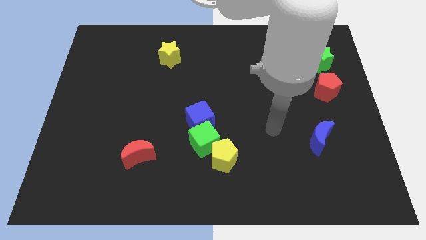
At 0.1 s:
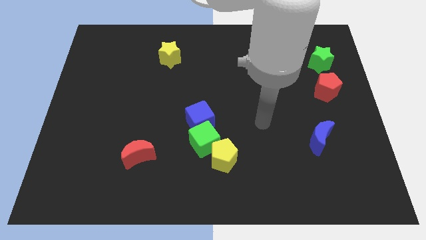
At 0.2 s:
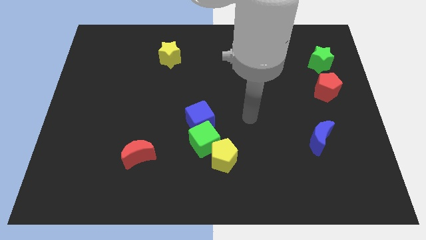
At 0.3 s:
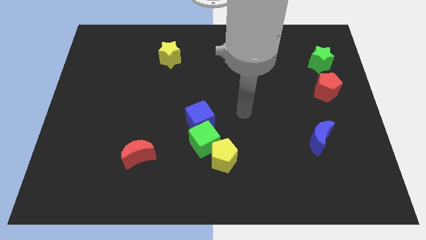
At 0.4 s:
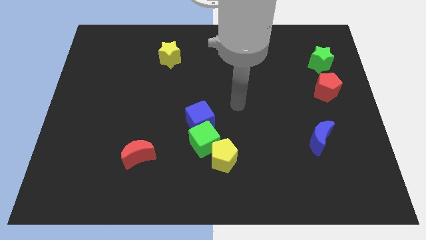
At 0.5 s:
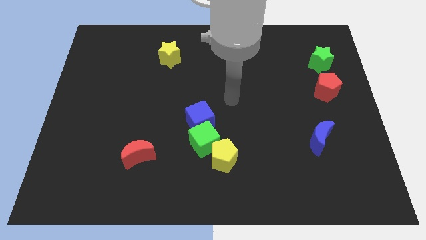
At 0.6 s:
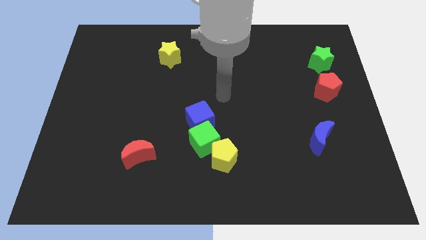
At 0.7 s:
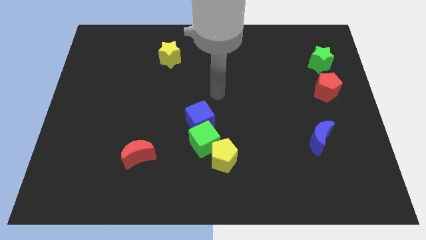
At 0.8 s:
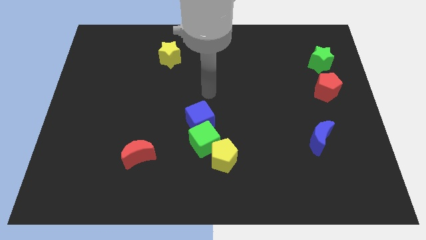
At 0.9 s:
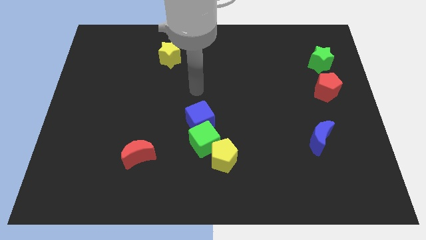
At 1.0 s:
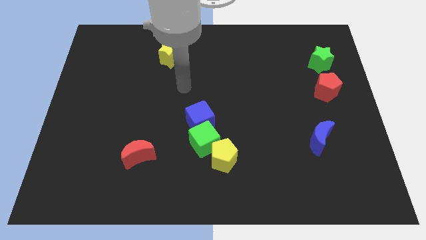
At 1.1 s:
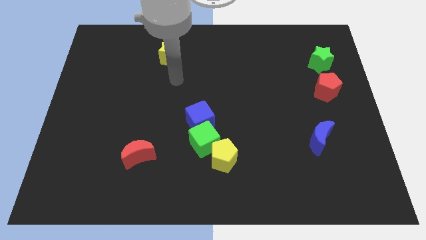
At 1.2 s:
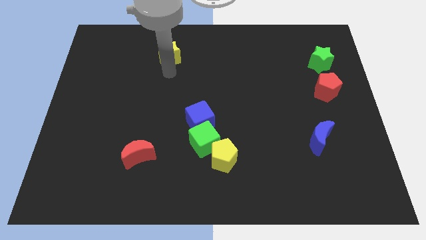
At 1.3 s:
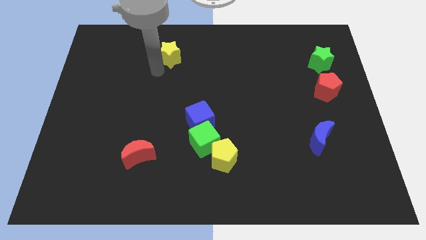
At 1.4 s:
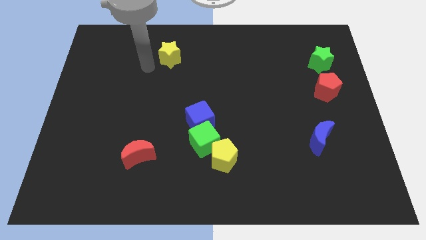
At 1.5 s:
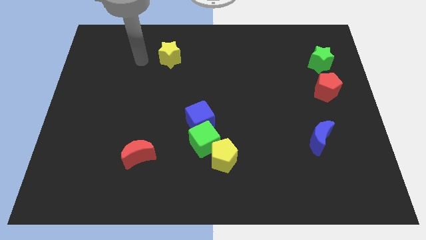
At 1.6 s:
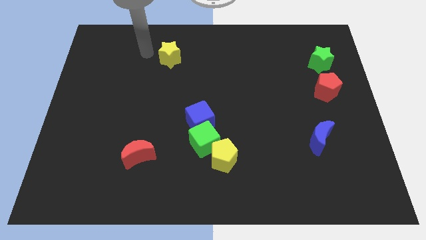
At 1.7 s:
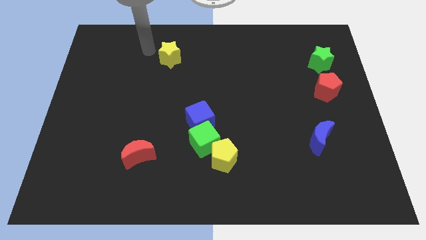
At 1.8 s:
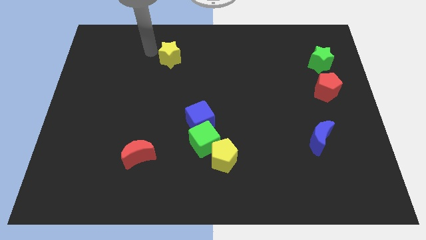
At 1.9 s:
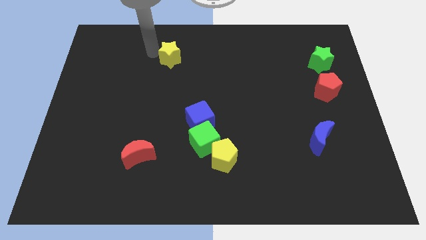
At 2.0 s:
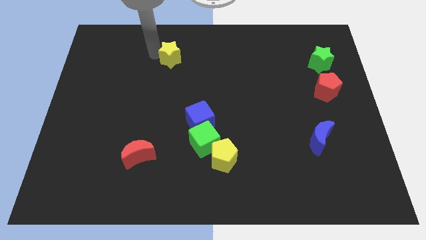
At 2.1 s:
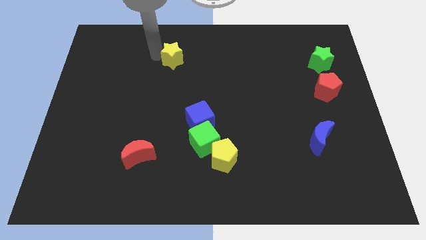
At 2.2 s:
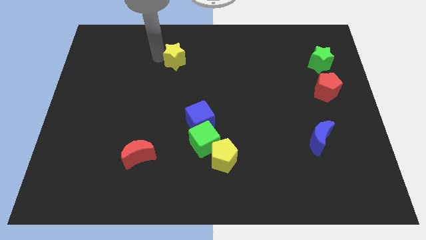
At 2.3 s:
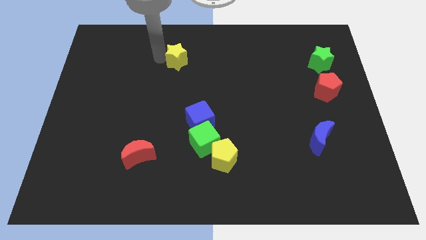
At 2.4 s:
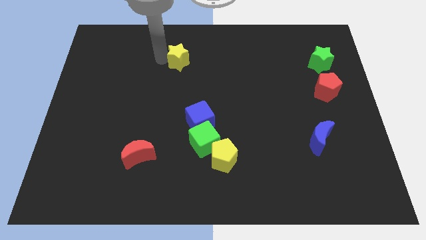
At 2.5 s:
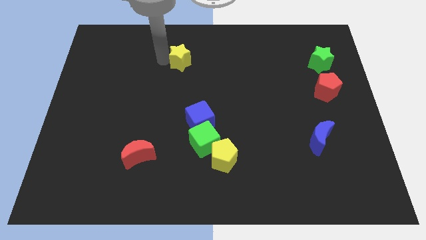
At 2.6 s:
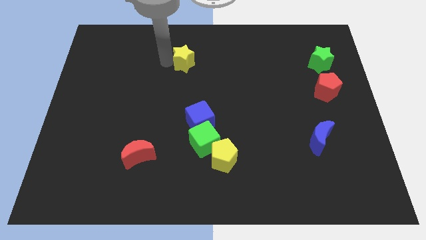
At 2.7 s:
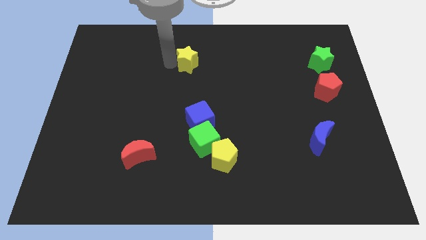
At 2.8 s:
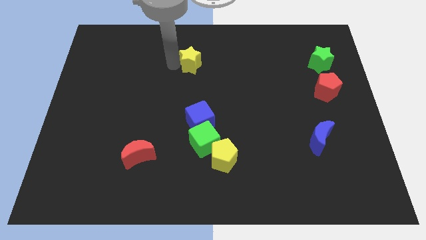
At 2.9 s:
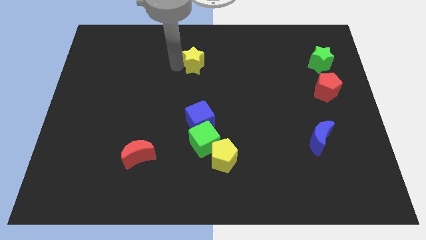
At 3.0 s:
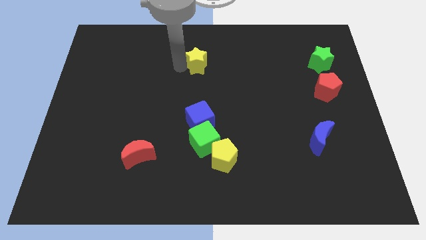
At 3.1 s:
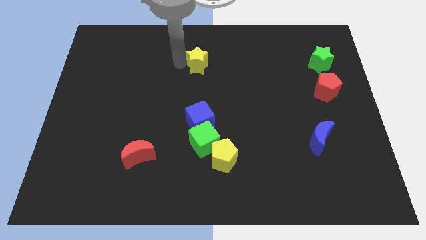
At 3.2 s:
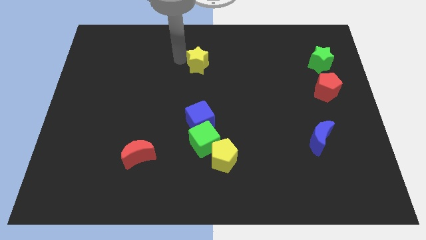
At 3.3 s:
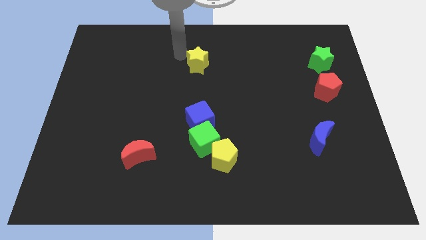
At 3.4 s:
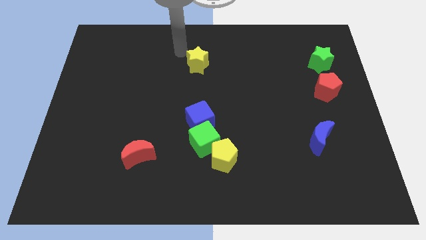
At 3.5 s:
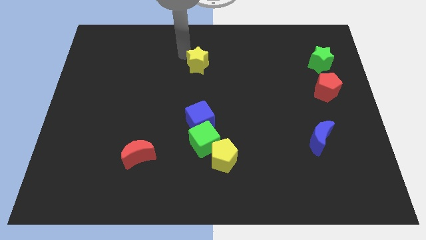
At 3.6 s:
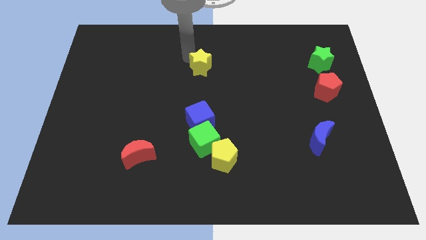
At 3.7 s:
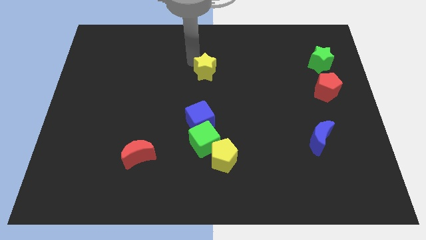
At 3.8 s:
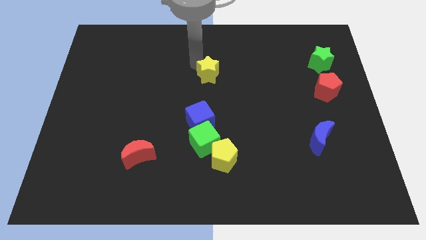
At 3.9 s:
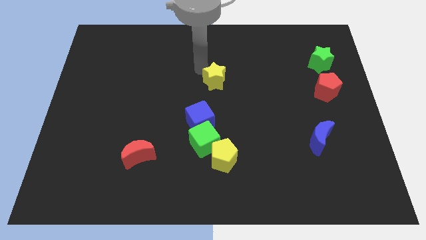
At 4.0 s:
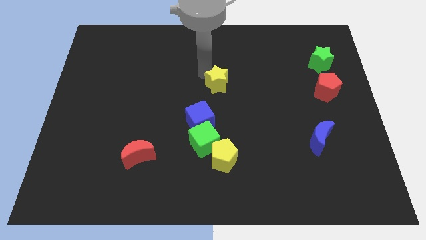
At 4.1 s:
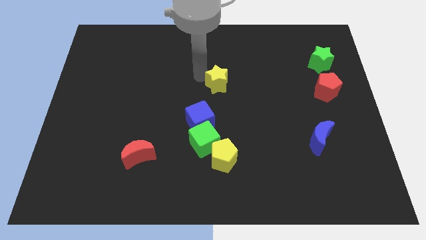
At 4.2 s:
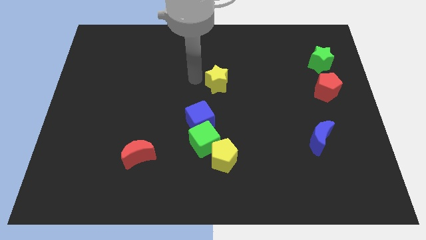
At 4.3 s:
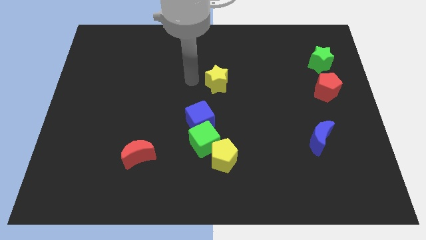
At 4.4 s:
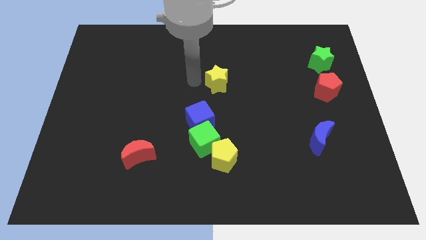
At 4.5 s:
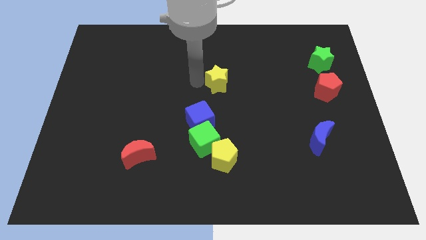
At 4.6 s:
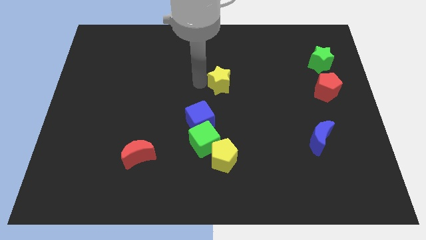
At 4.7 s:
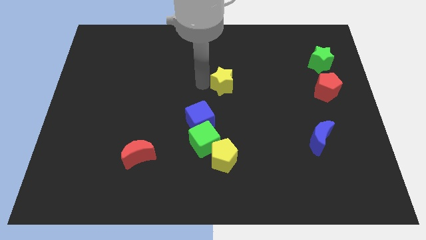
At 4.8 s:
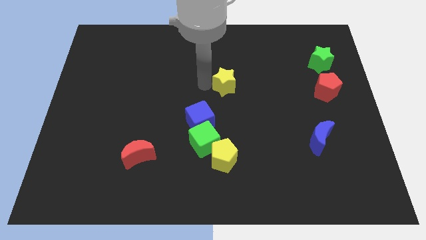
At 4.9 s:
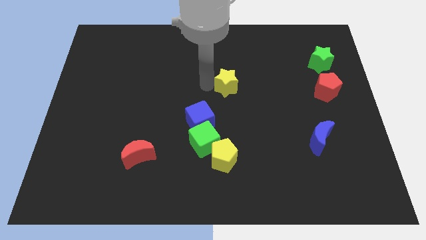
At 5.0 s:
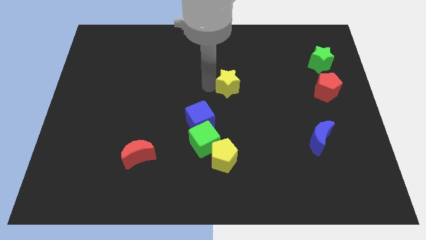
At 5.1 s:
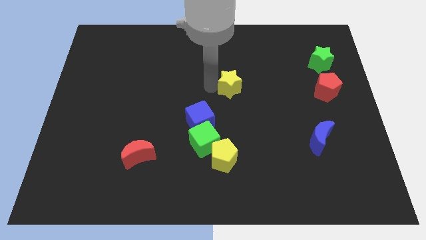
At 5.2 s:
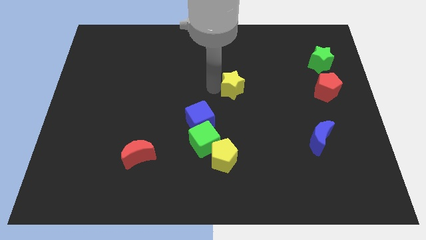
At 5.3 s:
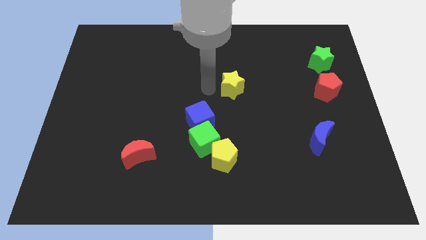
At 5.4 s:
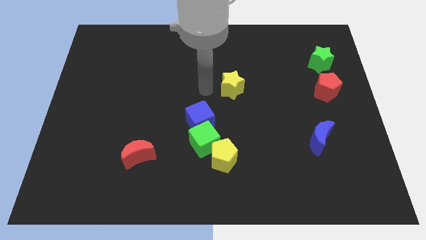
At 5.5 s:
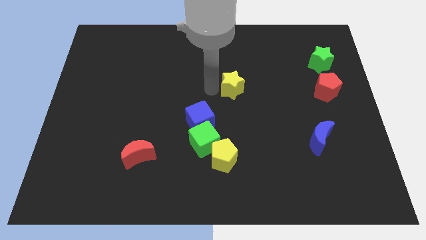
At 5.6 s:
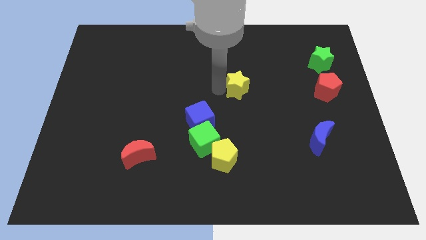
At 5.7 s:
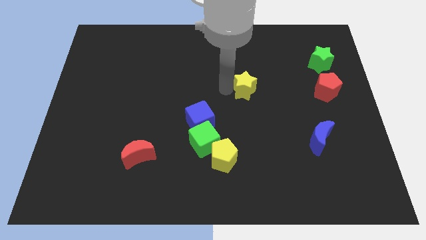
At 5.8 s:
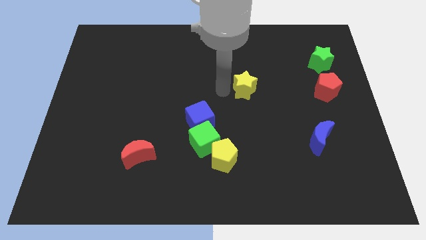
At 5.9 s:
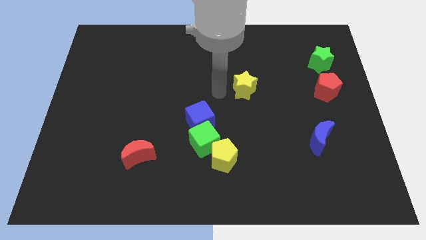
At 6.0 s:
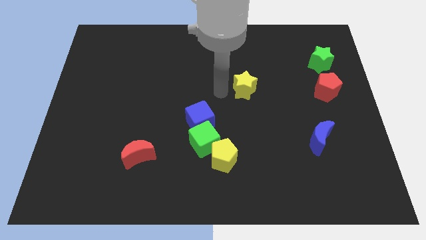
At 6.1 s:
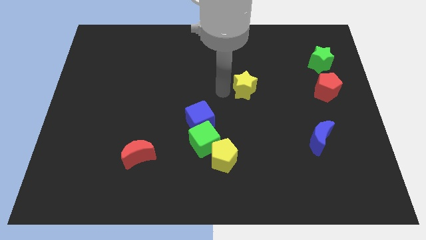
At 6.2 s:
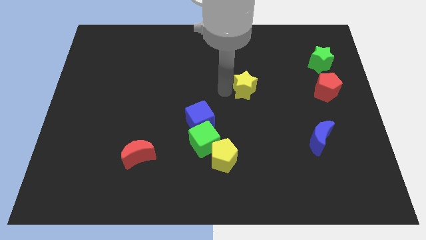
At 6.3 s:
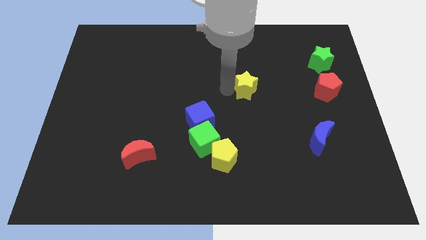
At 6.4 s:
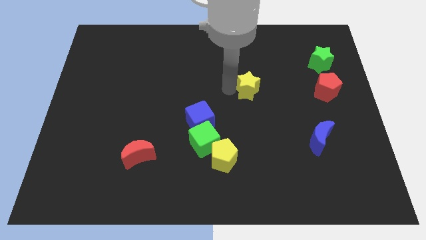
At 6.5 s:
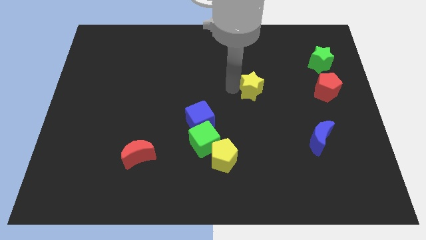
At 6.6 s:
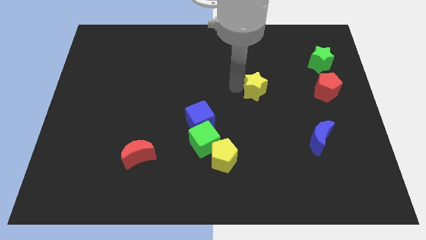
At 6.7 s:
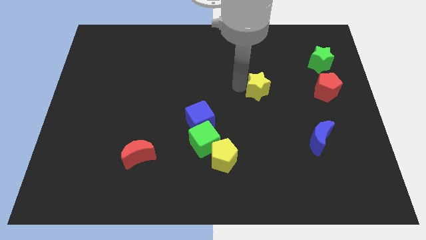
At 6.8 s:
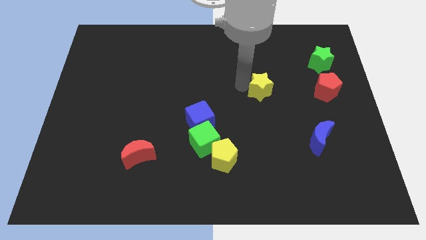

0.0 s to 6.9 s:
slide the yellow star left of the red pentagon
